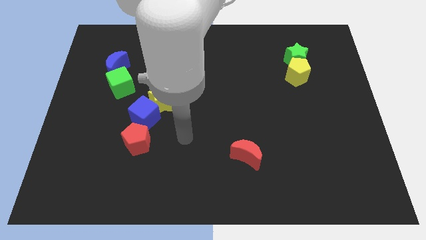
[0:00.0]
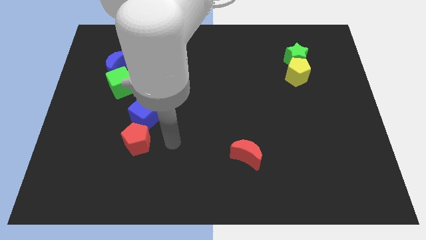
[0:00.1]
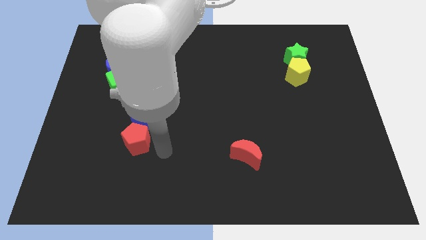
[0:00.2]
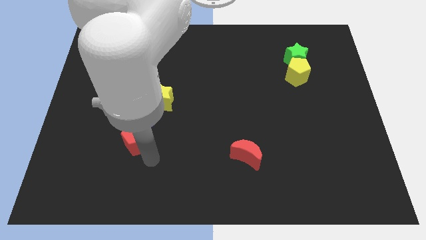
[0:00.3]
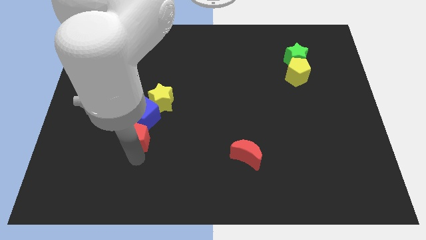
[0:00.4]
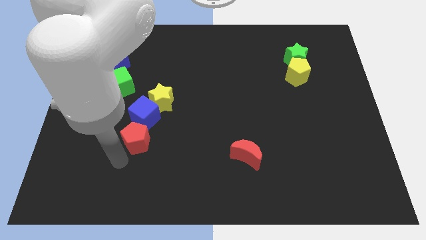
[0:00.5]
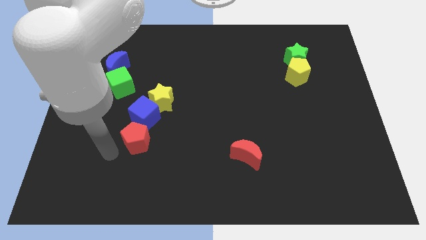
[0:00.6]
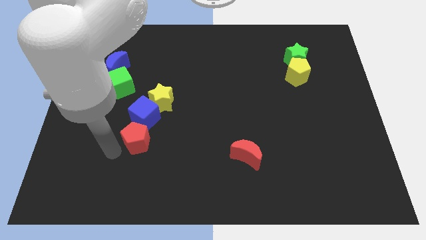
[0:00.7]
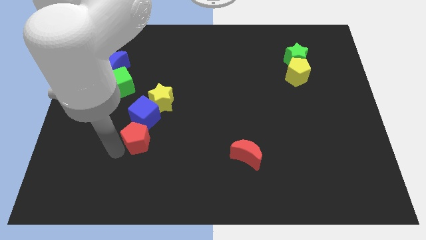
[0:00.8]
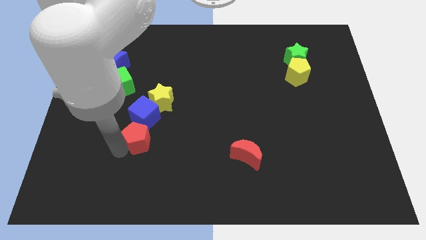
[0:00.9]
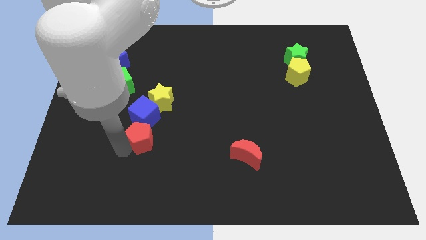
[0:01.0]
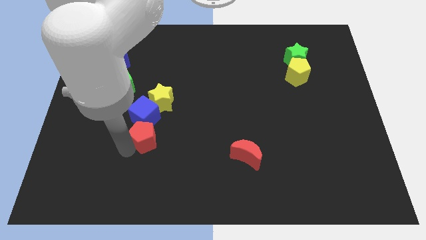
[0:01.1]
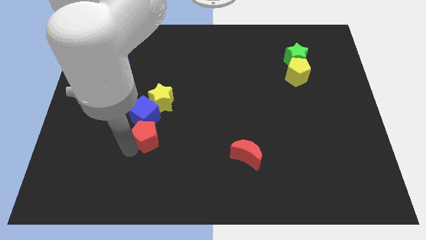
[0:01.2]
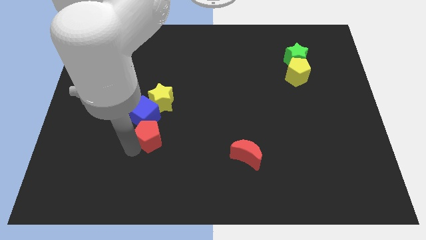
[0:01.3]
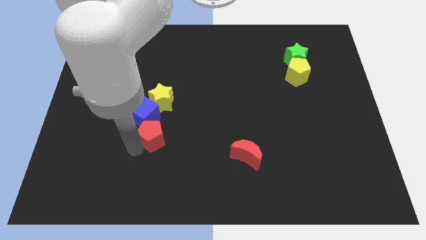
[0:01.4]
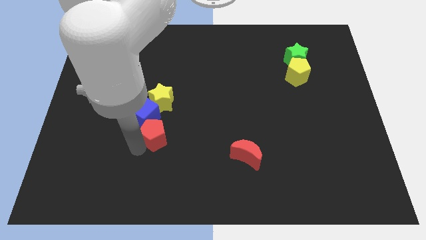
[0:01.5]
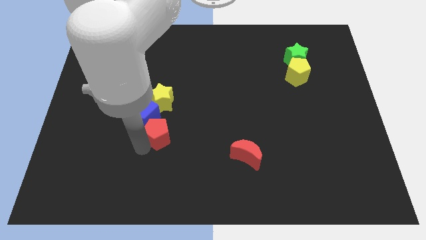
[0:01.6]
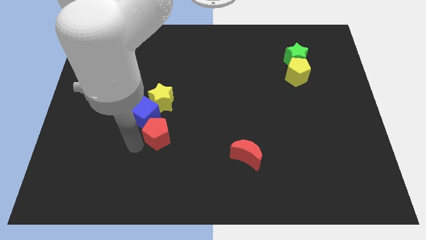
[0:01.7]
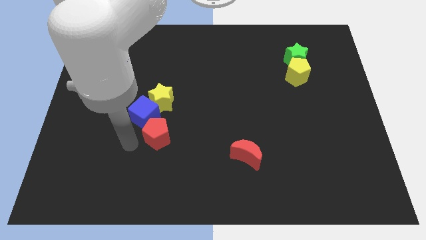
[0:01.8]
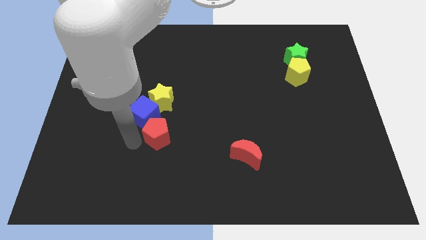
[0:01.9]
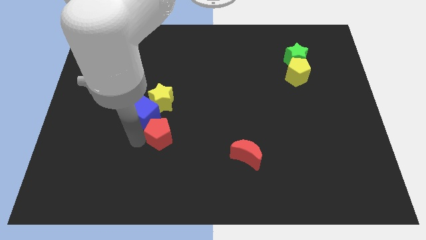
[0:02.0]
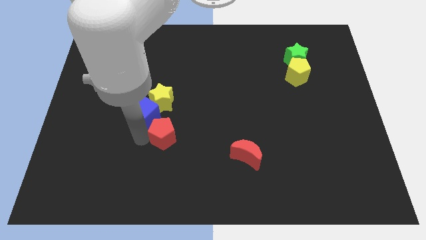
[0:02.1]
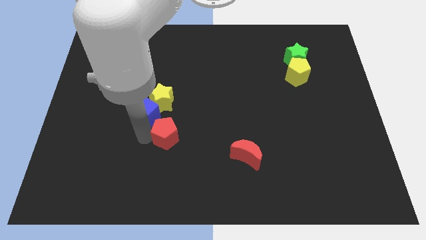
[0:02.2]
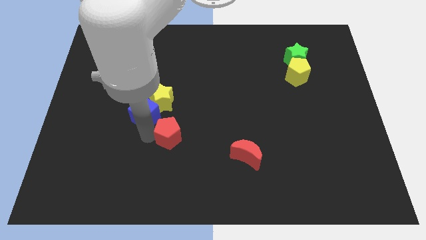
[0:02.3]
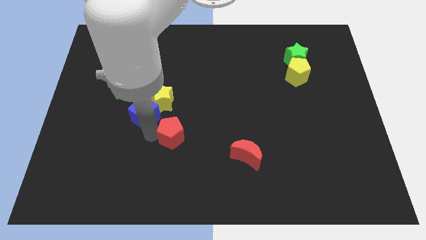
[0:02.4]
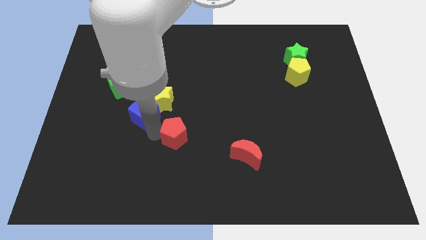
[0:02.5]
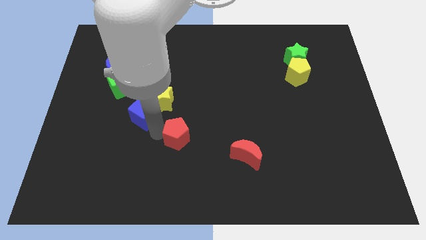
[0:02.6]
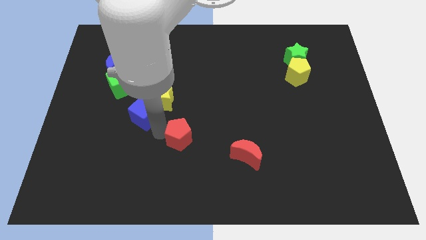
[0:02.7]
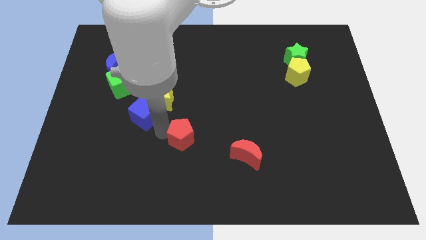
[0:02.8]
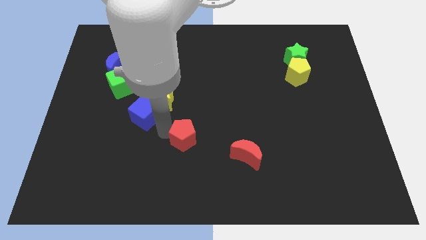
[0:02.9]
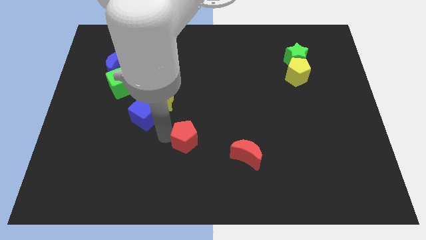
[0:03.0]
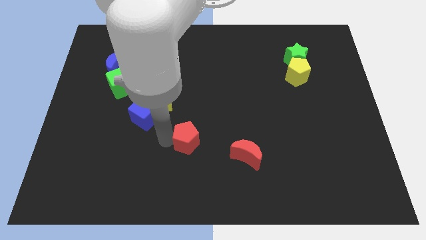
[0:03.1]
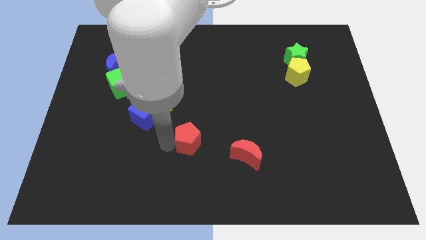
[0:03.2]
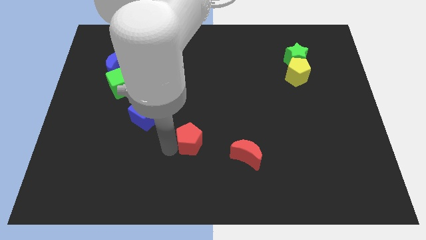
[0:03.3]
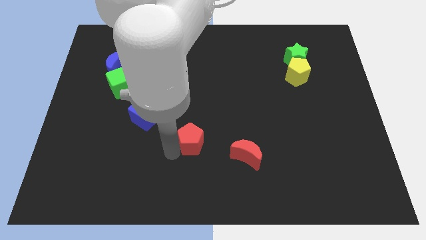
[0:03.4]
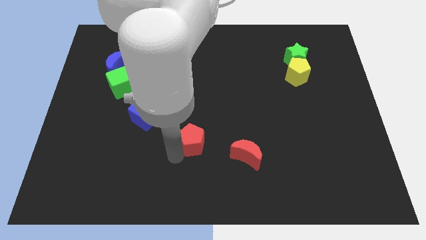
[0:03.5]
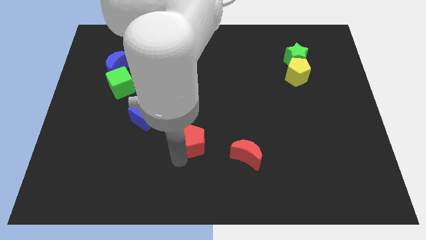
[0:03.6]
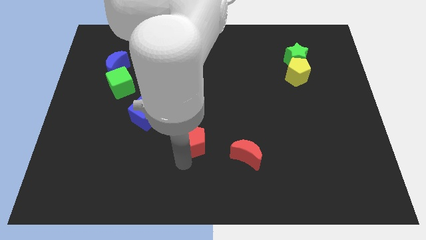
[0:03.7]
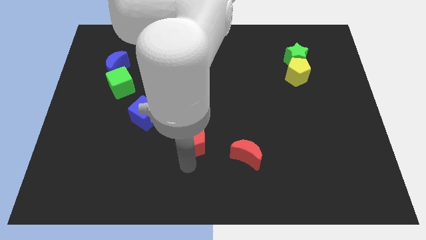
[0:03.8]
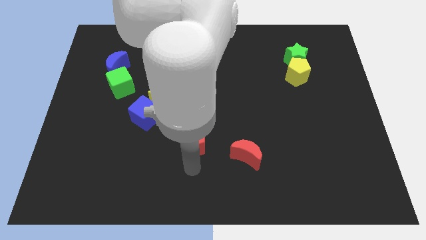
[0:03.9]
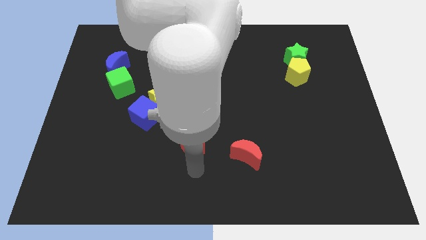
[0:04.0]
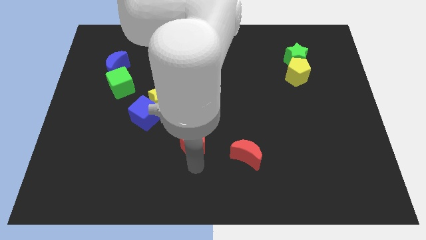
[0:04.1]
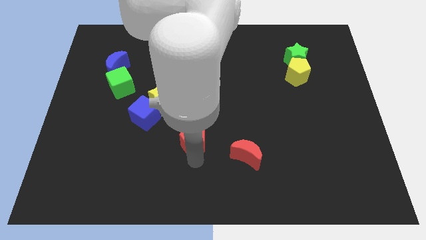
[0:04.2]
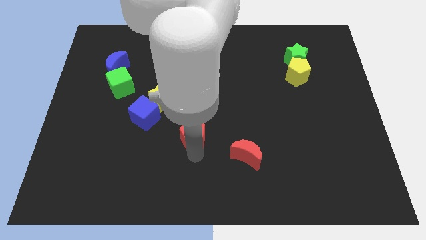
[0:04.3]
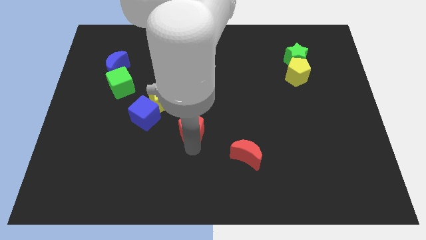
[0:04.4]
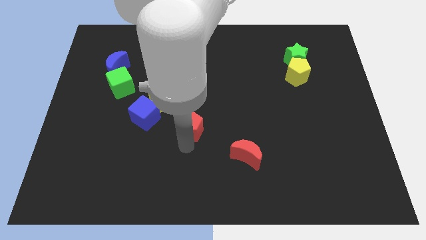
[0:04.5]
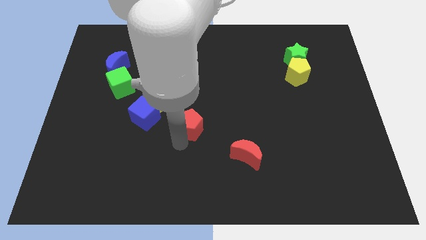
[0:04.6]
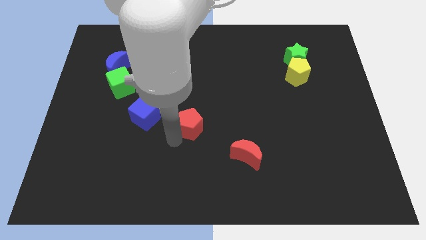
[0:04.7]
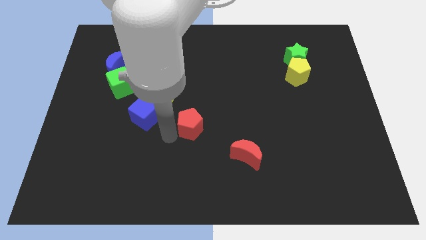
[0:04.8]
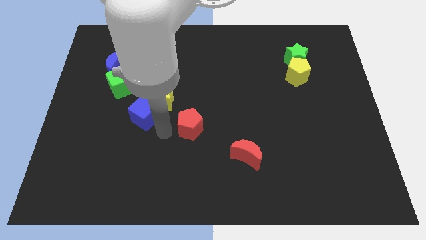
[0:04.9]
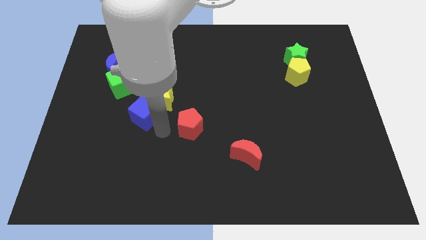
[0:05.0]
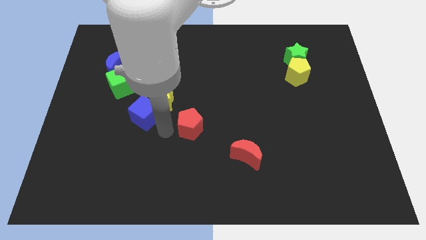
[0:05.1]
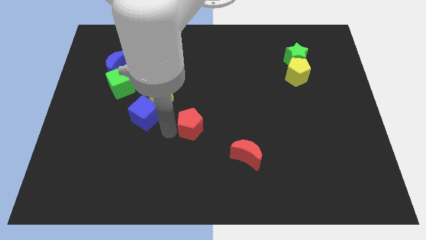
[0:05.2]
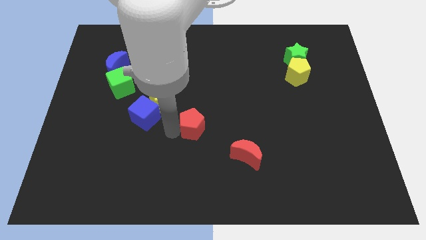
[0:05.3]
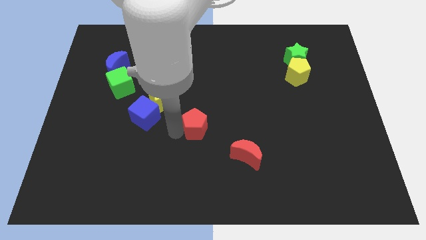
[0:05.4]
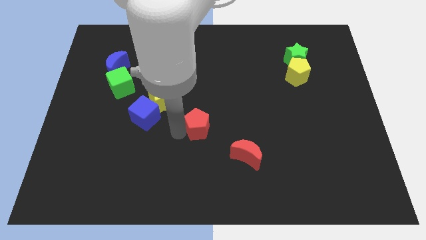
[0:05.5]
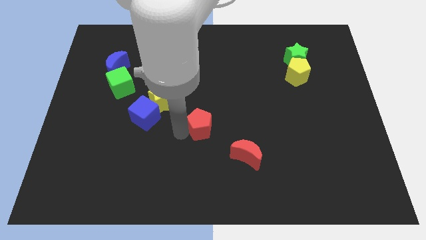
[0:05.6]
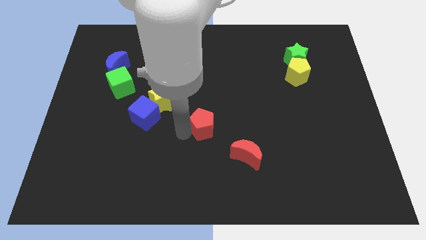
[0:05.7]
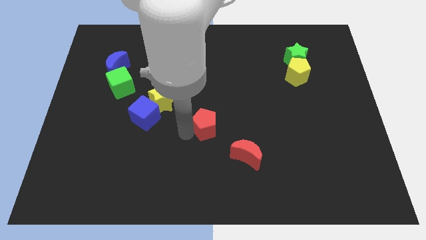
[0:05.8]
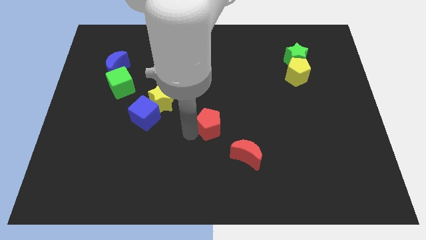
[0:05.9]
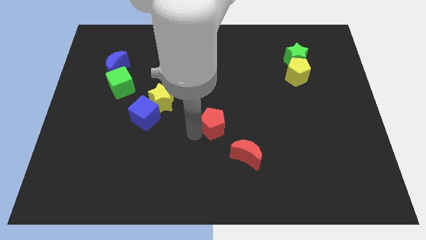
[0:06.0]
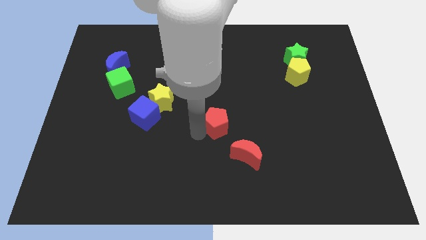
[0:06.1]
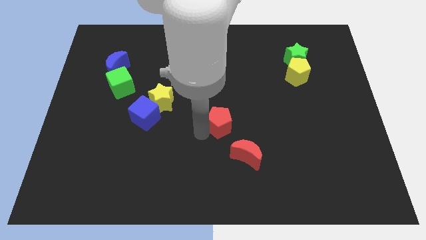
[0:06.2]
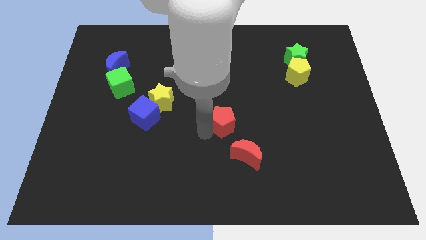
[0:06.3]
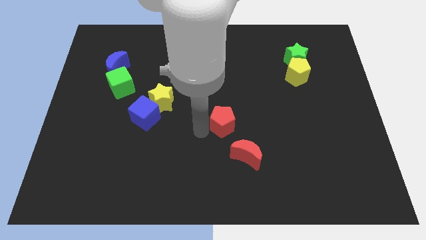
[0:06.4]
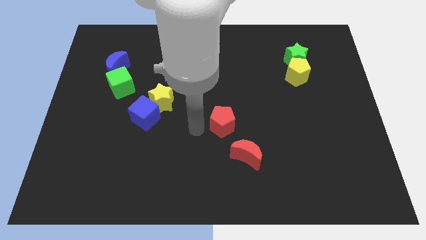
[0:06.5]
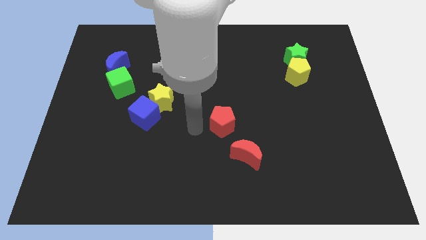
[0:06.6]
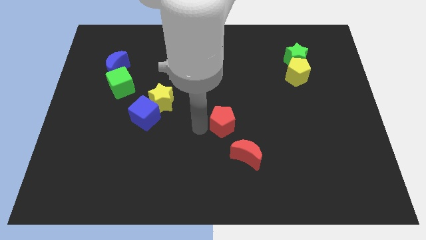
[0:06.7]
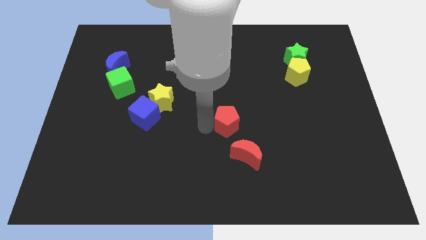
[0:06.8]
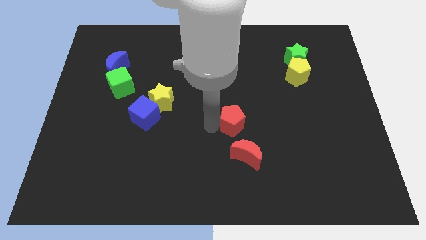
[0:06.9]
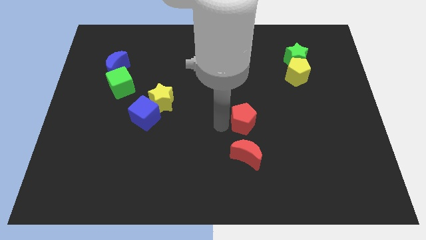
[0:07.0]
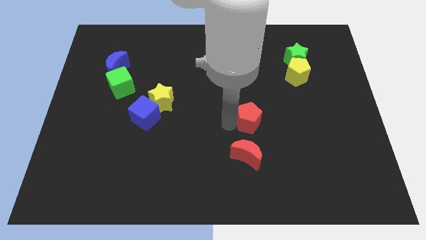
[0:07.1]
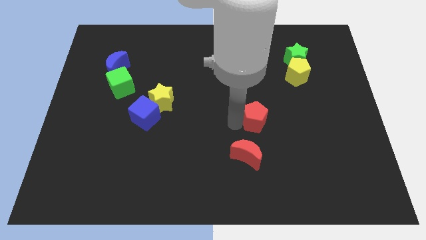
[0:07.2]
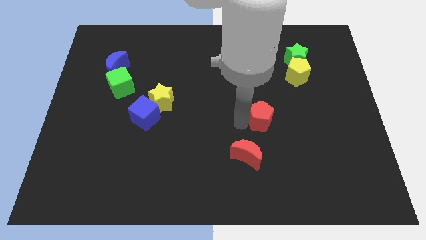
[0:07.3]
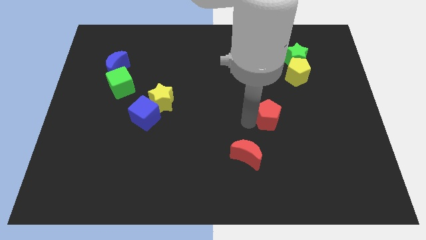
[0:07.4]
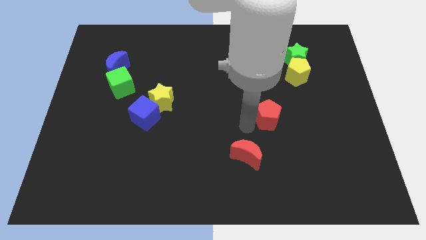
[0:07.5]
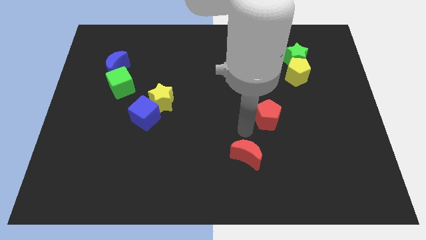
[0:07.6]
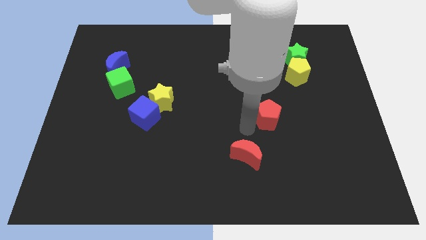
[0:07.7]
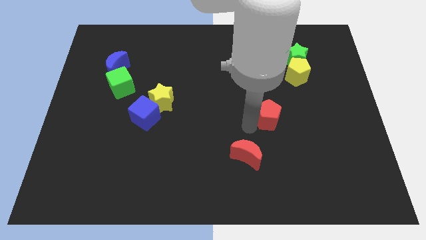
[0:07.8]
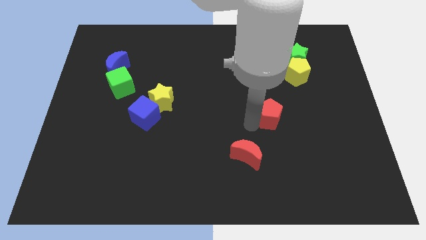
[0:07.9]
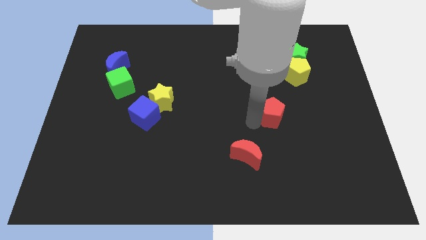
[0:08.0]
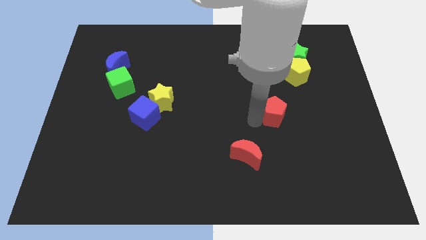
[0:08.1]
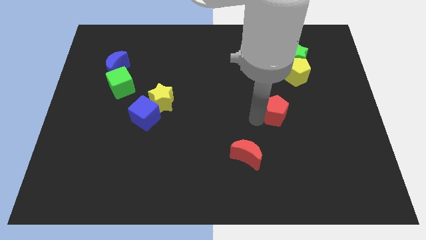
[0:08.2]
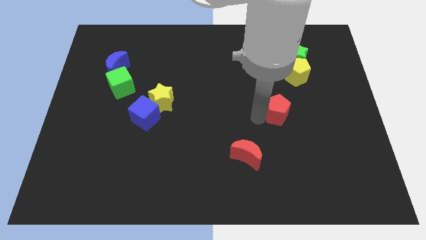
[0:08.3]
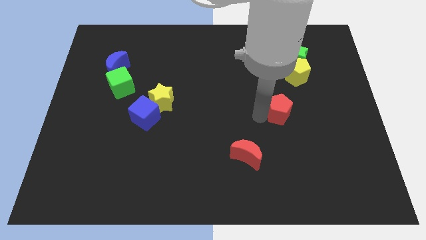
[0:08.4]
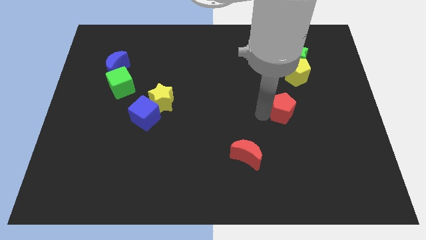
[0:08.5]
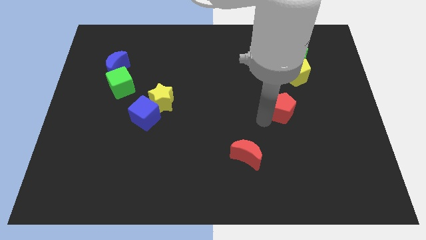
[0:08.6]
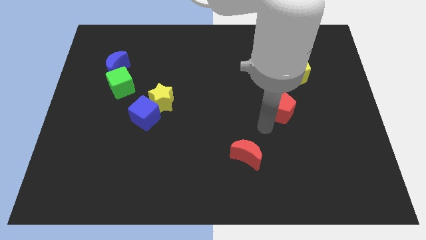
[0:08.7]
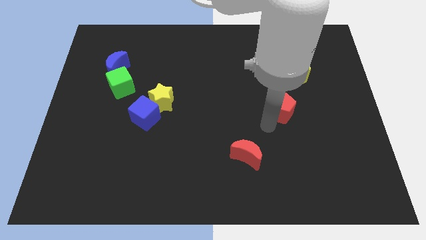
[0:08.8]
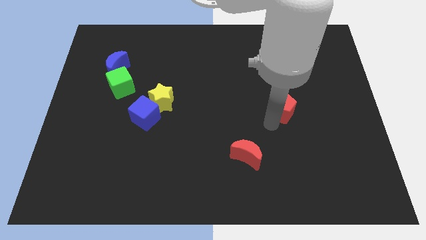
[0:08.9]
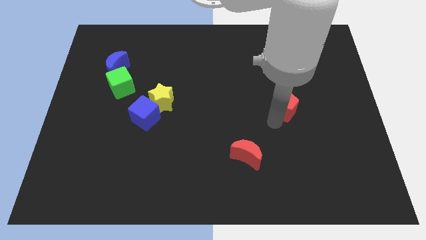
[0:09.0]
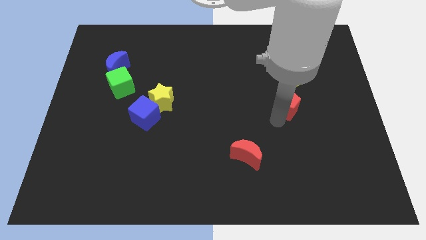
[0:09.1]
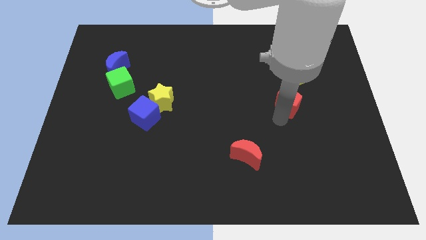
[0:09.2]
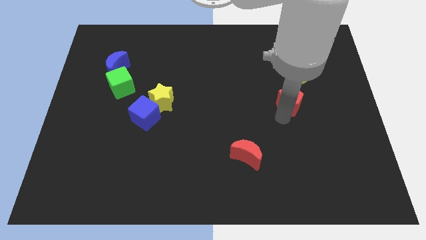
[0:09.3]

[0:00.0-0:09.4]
push the red pentagon below the green star
